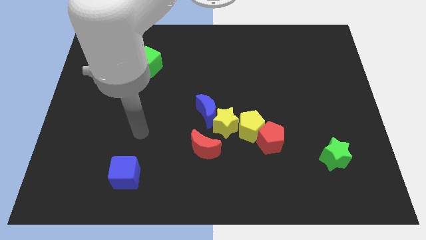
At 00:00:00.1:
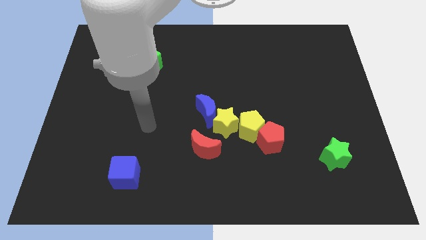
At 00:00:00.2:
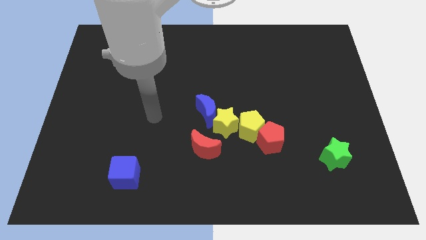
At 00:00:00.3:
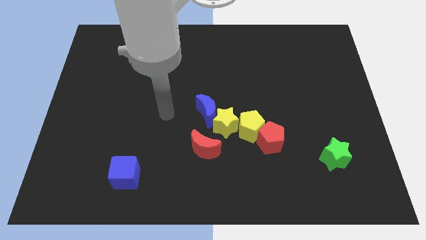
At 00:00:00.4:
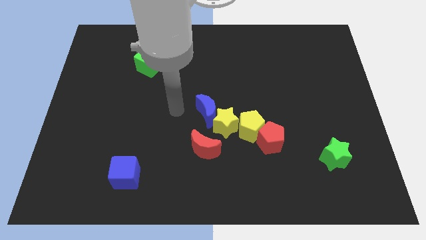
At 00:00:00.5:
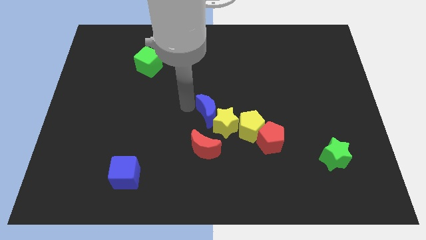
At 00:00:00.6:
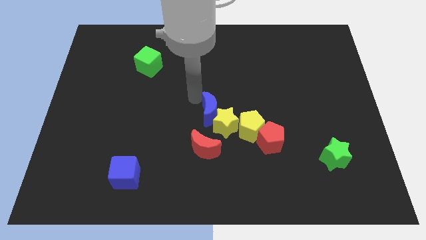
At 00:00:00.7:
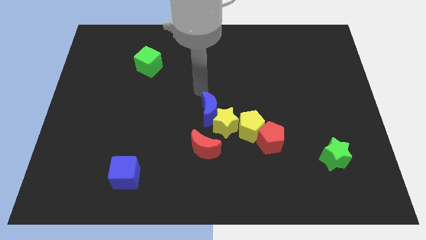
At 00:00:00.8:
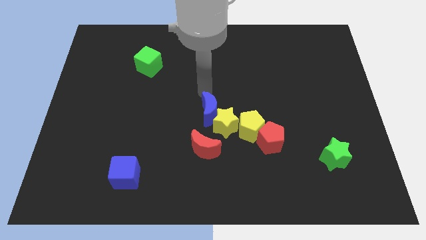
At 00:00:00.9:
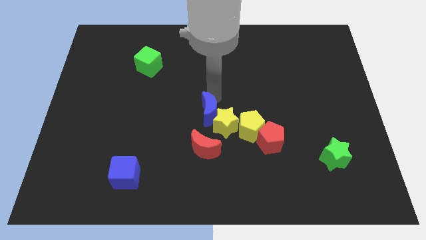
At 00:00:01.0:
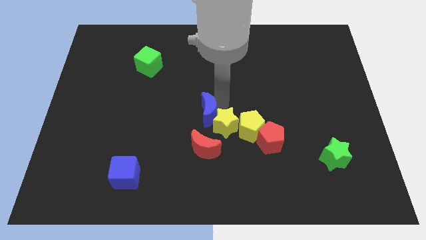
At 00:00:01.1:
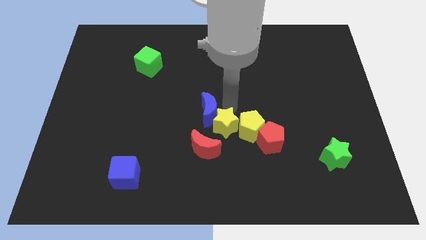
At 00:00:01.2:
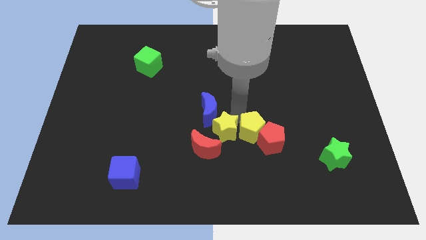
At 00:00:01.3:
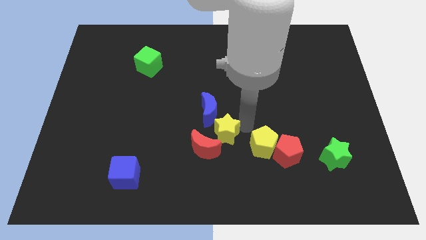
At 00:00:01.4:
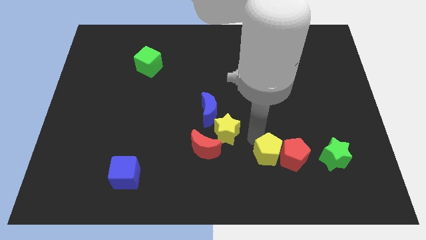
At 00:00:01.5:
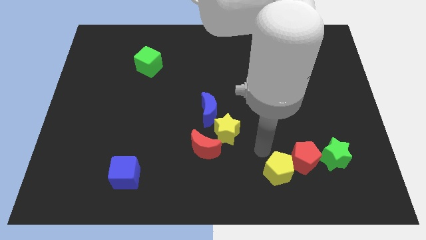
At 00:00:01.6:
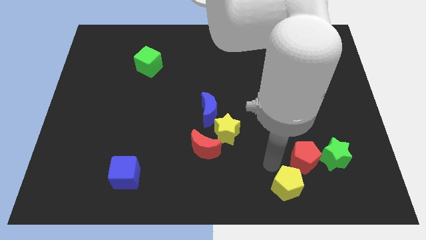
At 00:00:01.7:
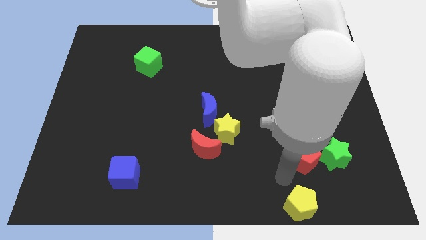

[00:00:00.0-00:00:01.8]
move the red pentagon away from the yellow pentagon

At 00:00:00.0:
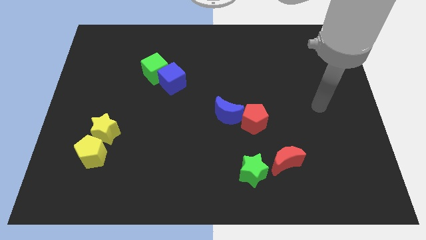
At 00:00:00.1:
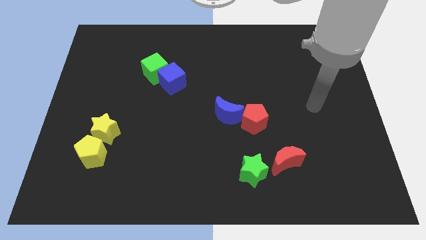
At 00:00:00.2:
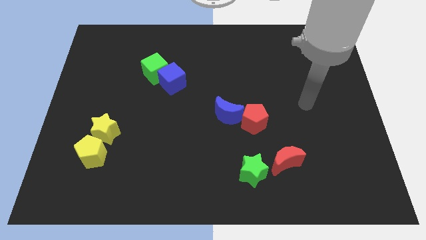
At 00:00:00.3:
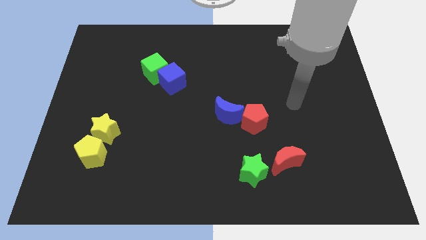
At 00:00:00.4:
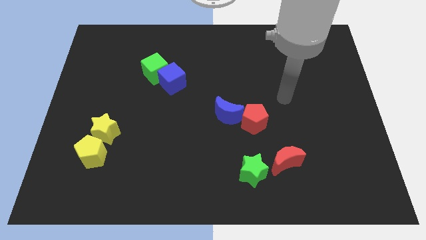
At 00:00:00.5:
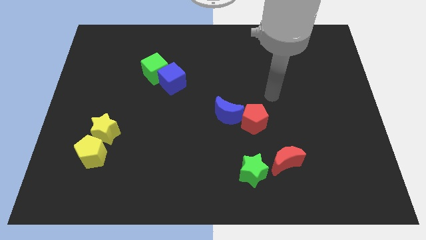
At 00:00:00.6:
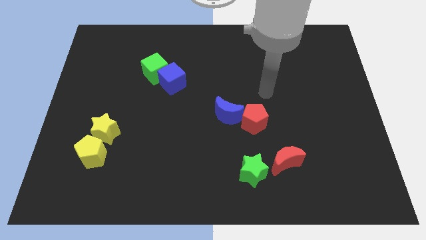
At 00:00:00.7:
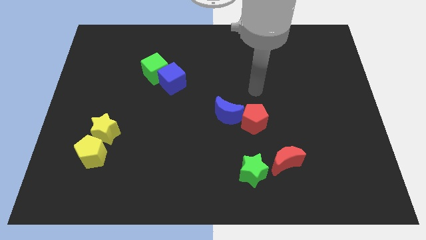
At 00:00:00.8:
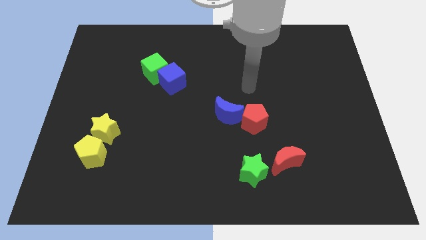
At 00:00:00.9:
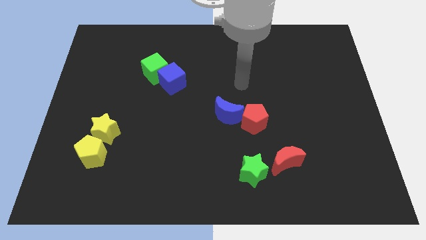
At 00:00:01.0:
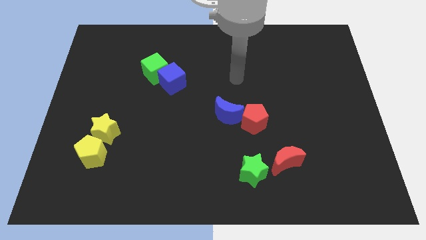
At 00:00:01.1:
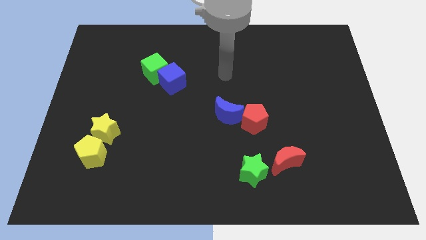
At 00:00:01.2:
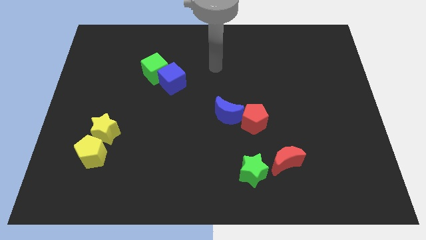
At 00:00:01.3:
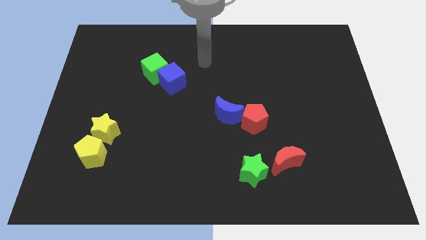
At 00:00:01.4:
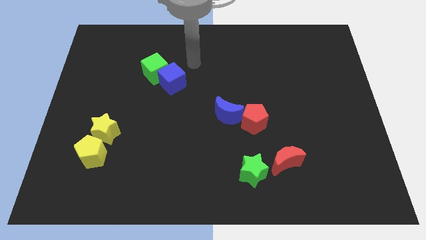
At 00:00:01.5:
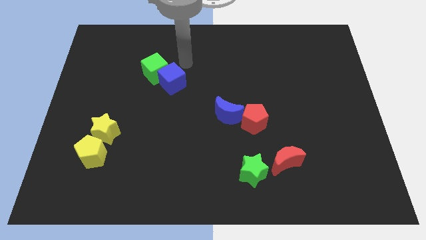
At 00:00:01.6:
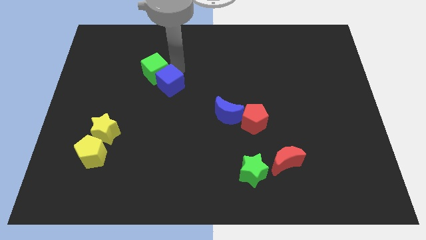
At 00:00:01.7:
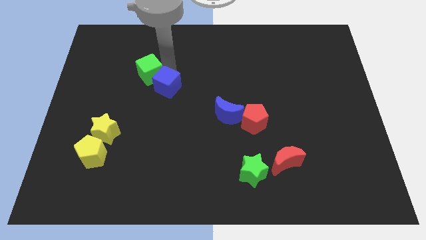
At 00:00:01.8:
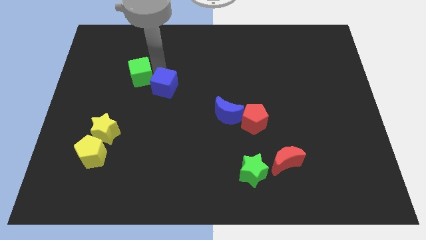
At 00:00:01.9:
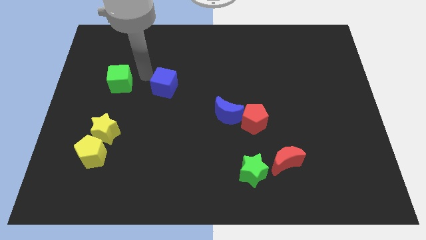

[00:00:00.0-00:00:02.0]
move the blue cube away from the green cube

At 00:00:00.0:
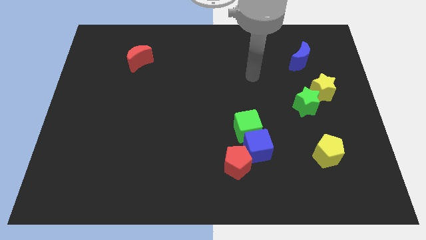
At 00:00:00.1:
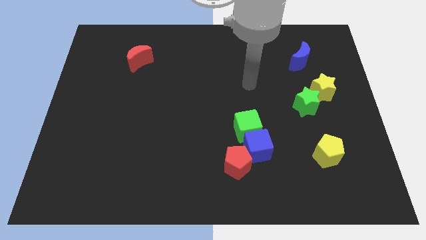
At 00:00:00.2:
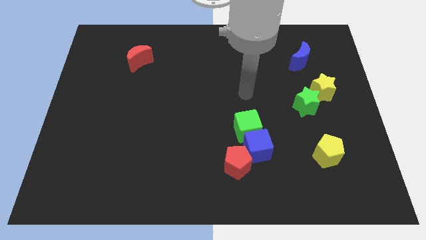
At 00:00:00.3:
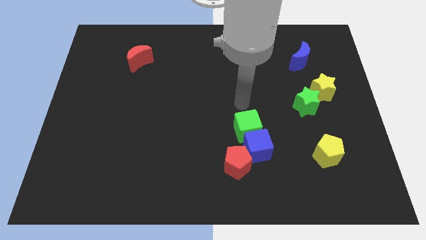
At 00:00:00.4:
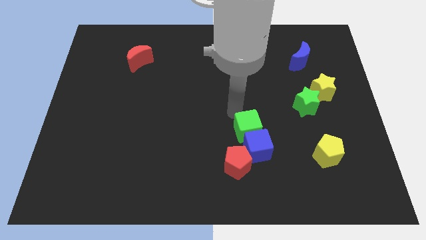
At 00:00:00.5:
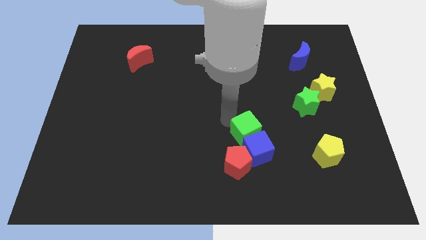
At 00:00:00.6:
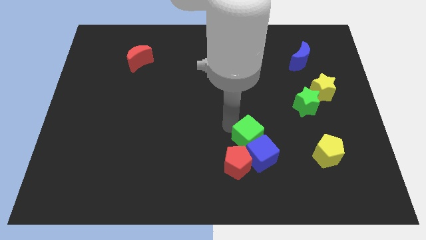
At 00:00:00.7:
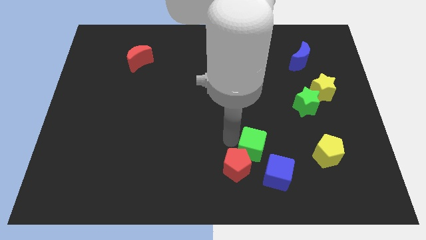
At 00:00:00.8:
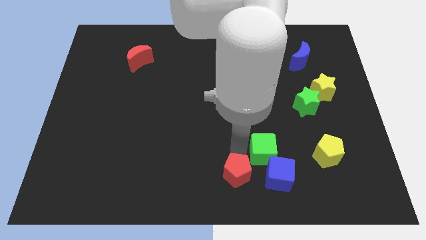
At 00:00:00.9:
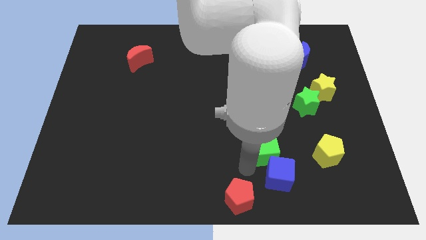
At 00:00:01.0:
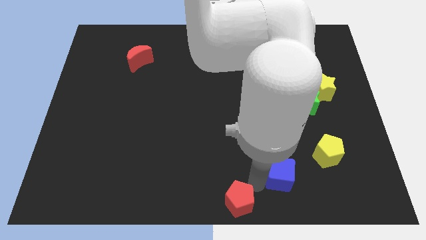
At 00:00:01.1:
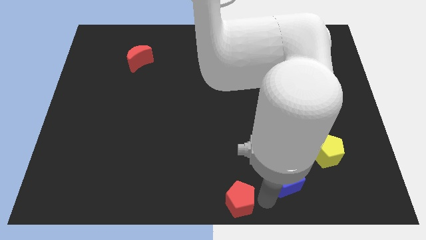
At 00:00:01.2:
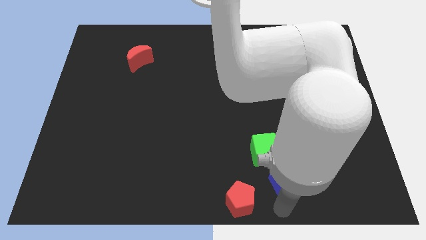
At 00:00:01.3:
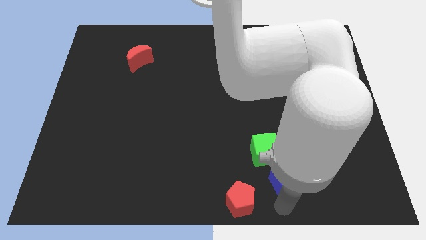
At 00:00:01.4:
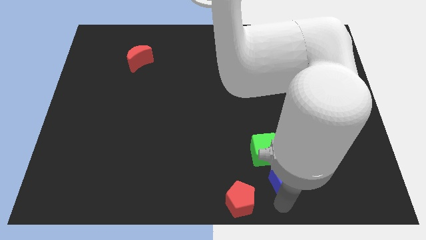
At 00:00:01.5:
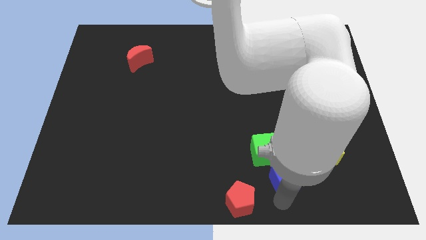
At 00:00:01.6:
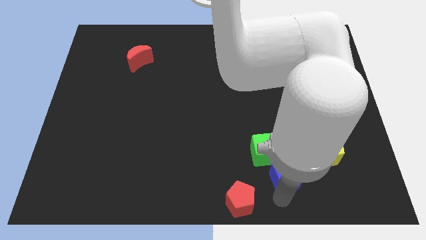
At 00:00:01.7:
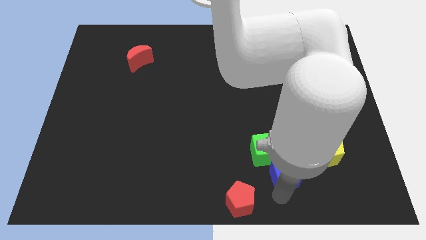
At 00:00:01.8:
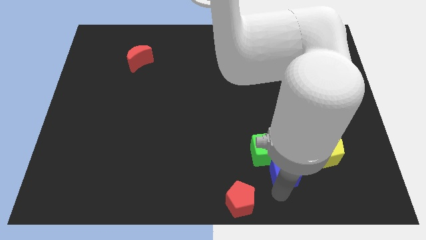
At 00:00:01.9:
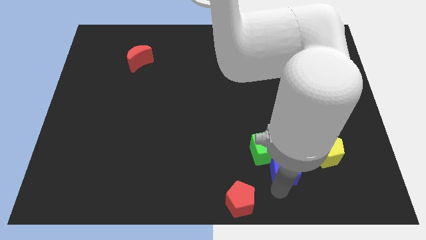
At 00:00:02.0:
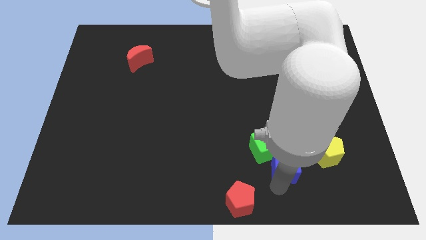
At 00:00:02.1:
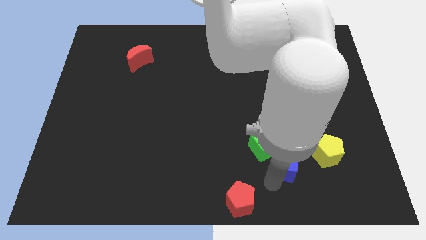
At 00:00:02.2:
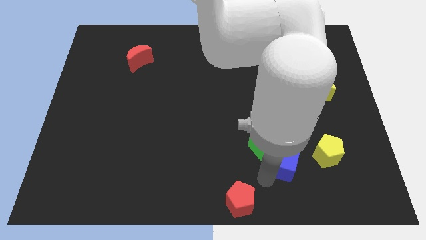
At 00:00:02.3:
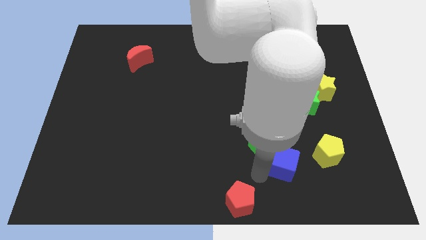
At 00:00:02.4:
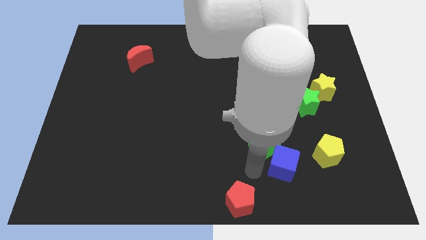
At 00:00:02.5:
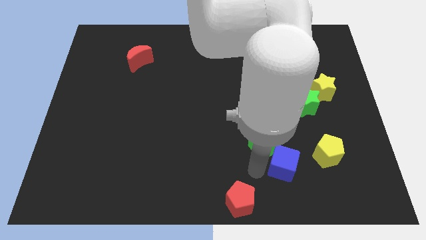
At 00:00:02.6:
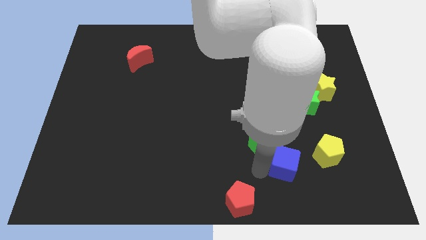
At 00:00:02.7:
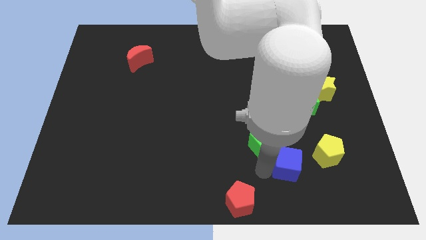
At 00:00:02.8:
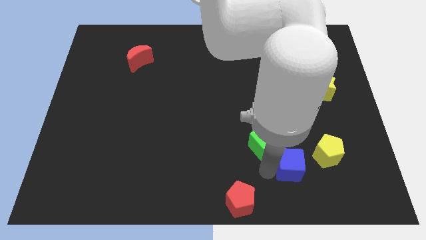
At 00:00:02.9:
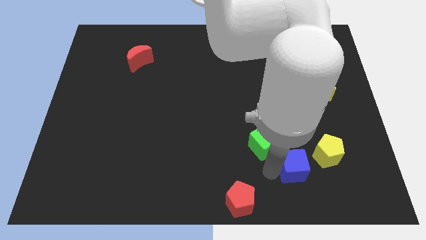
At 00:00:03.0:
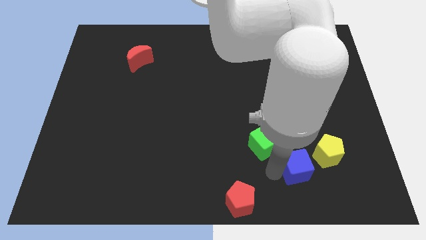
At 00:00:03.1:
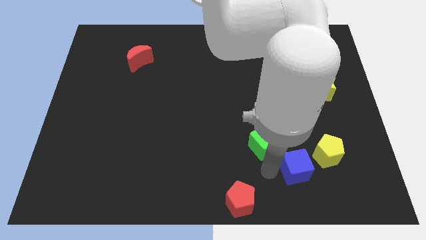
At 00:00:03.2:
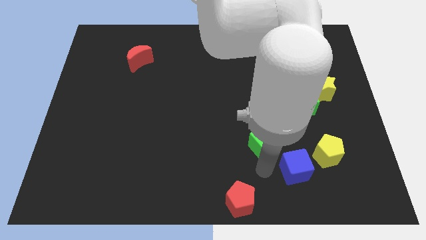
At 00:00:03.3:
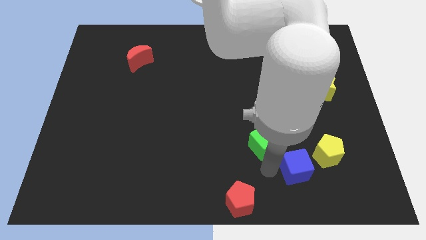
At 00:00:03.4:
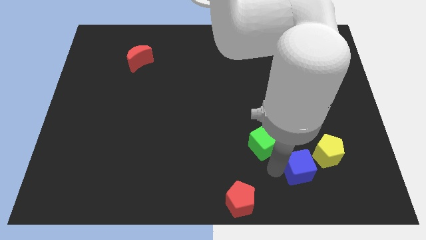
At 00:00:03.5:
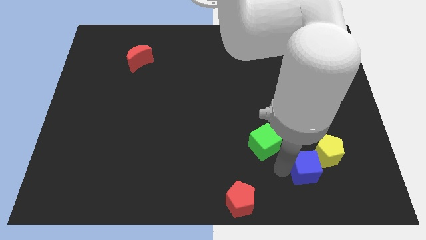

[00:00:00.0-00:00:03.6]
pull the blue cube apart from the green cube and red pentagon

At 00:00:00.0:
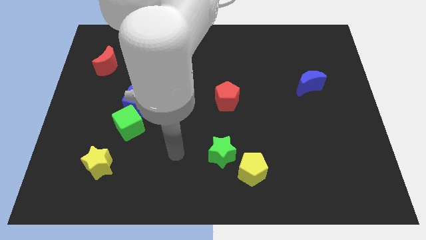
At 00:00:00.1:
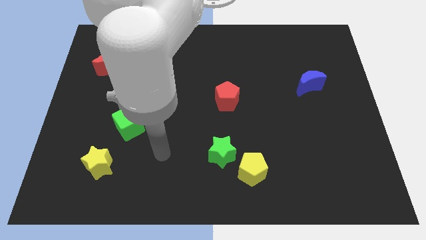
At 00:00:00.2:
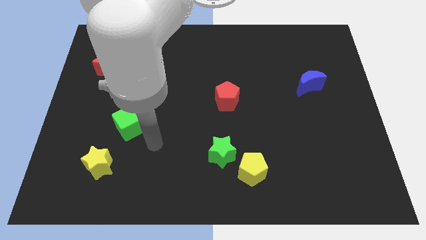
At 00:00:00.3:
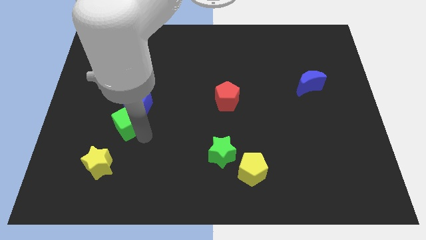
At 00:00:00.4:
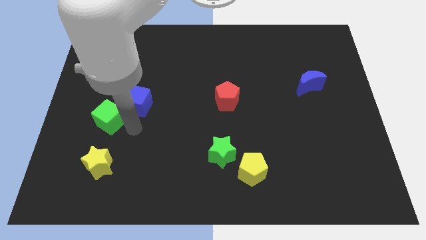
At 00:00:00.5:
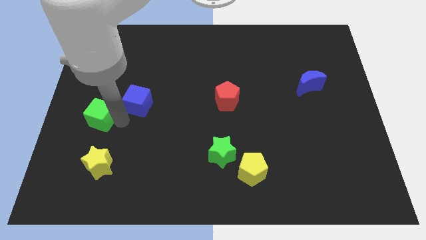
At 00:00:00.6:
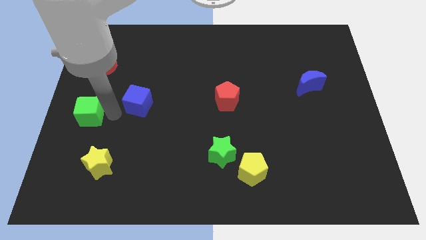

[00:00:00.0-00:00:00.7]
pull the blue cube apart from the green cube

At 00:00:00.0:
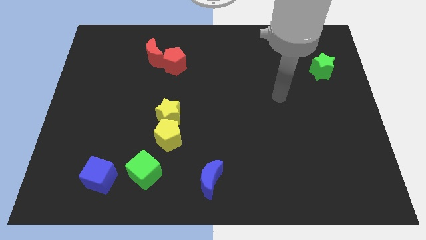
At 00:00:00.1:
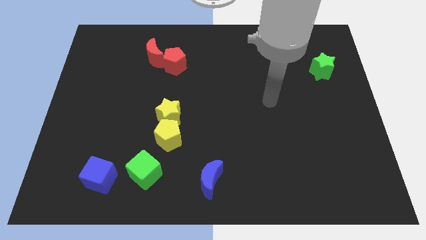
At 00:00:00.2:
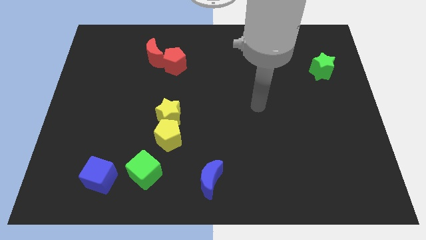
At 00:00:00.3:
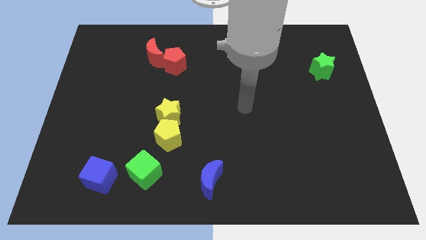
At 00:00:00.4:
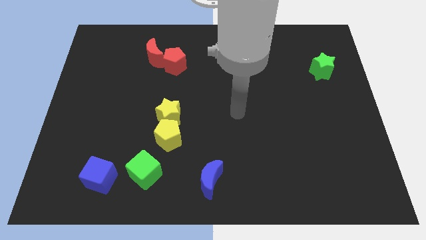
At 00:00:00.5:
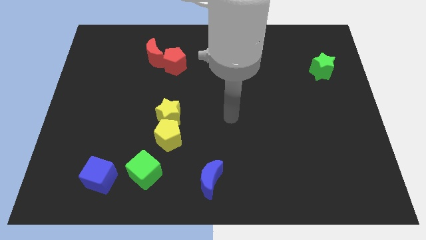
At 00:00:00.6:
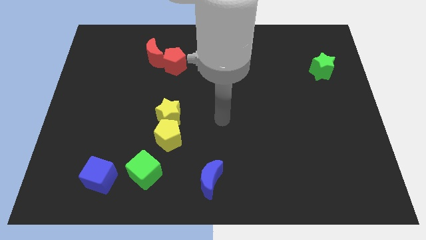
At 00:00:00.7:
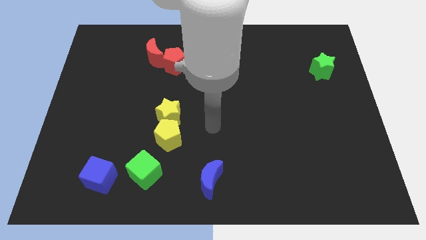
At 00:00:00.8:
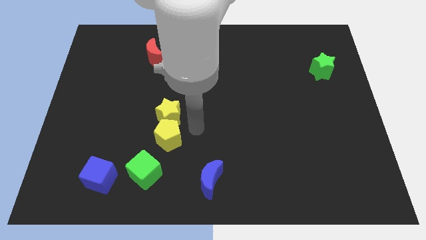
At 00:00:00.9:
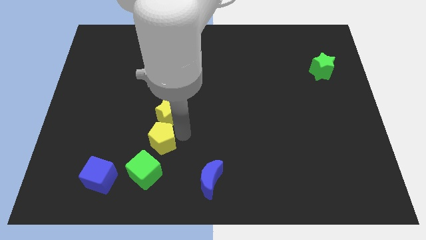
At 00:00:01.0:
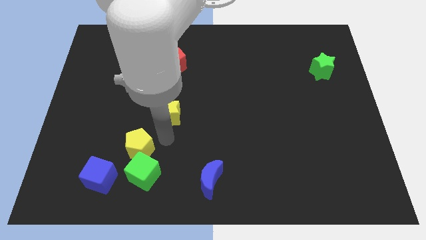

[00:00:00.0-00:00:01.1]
separate the yellow star from the yellow pentagon
